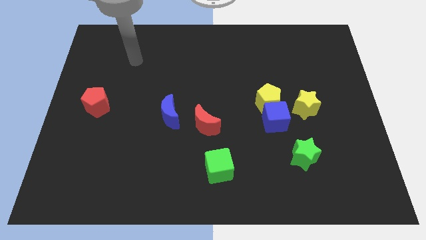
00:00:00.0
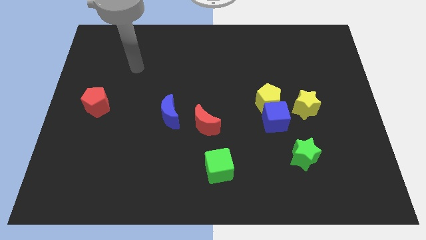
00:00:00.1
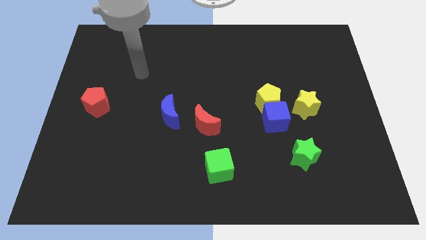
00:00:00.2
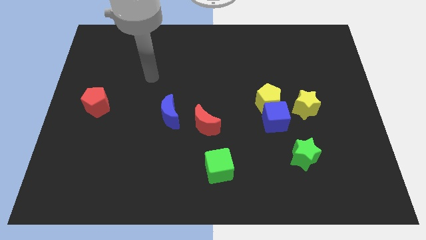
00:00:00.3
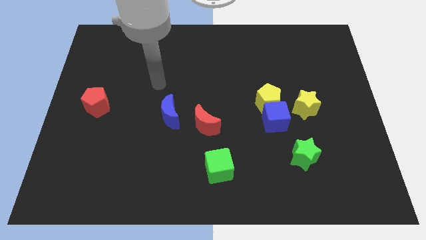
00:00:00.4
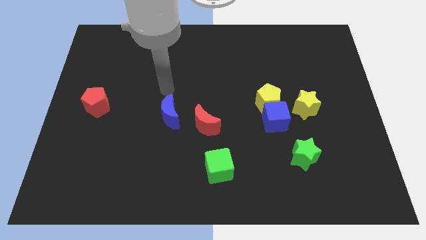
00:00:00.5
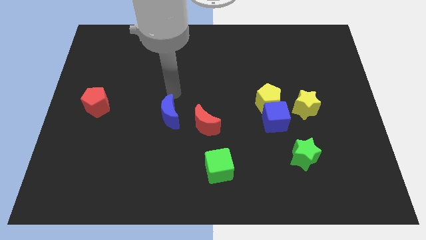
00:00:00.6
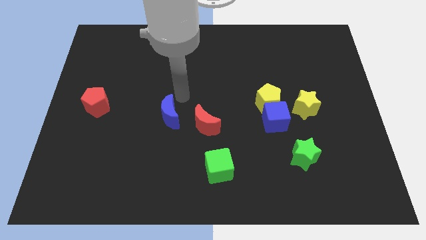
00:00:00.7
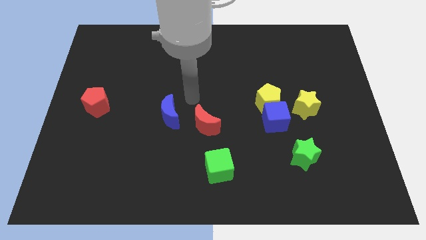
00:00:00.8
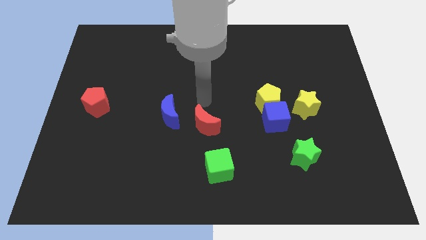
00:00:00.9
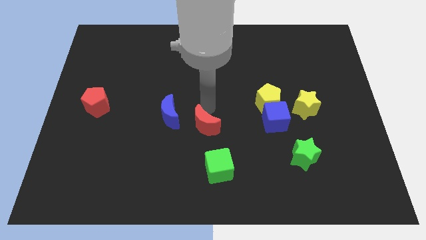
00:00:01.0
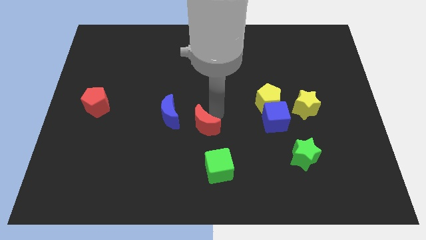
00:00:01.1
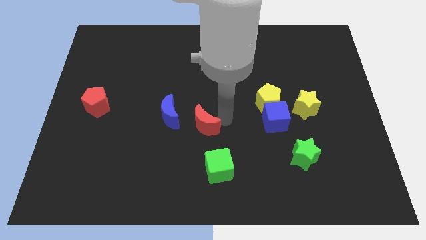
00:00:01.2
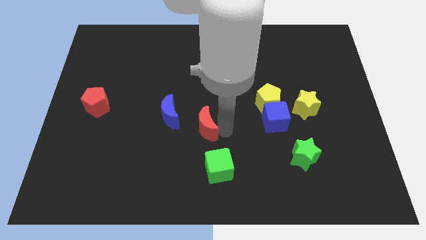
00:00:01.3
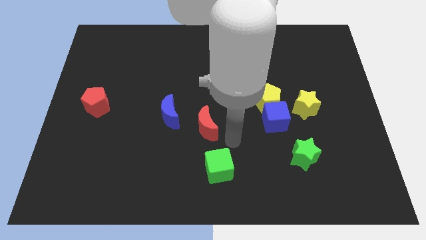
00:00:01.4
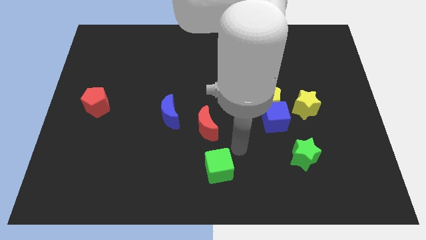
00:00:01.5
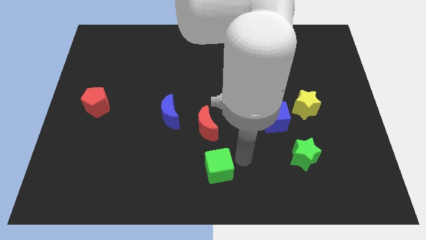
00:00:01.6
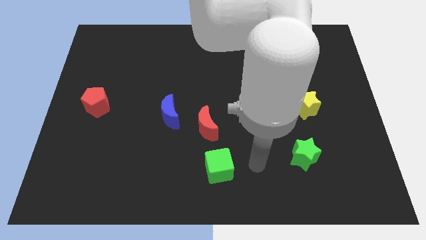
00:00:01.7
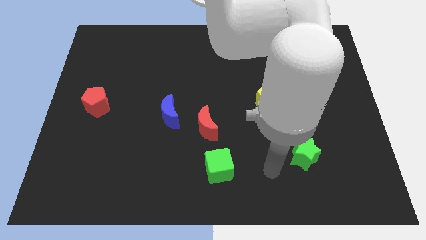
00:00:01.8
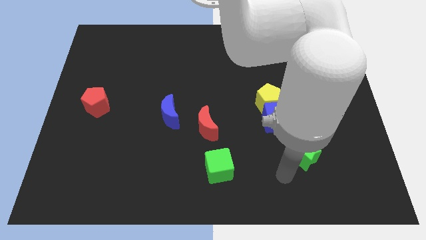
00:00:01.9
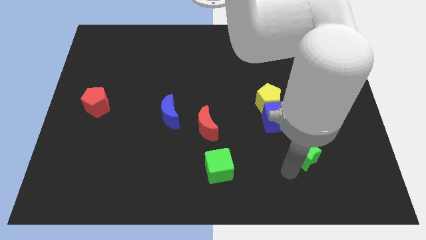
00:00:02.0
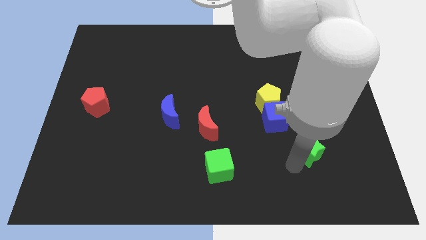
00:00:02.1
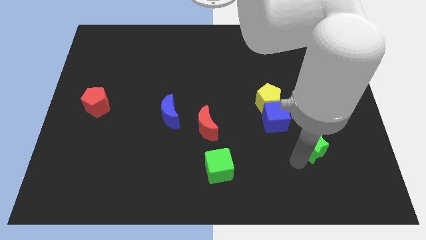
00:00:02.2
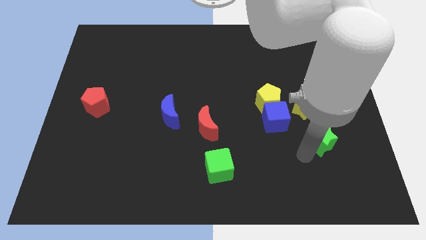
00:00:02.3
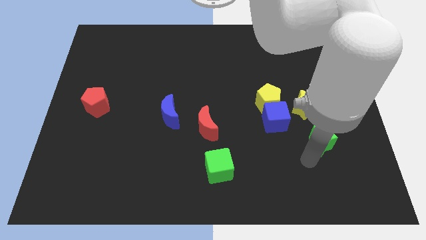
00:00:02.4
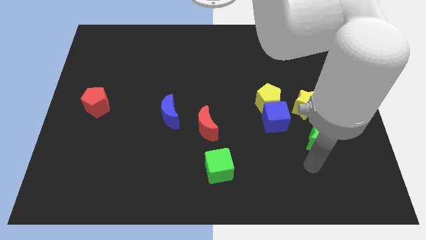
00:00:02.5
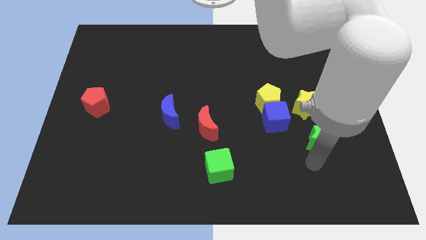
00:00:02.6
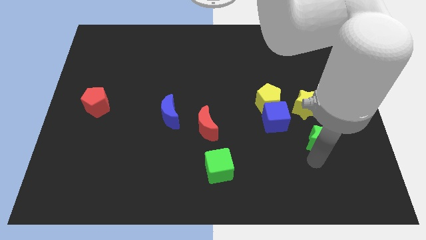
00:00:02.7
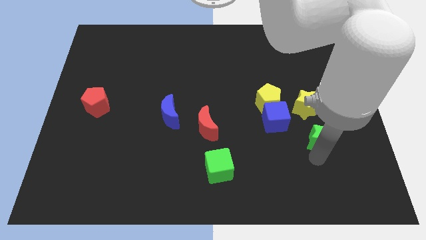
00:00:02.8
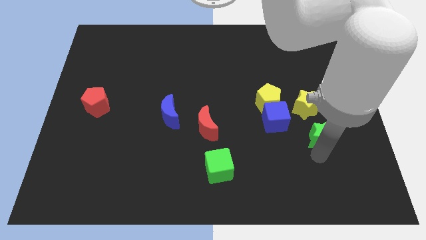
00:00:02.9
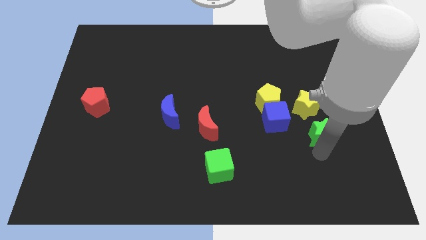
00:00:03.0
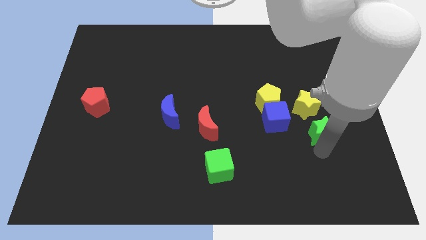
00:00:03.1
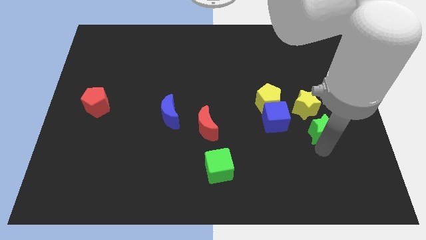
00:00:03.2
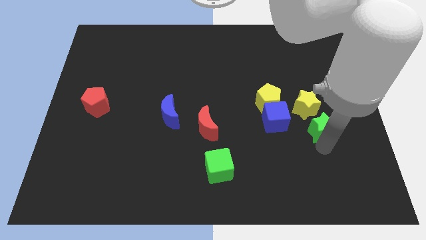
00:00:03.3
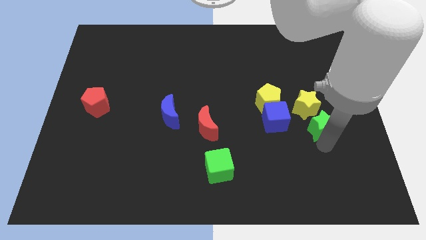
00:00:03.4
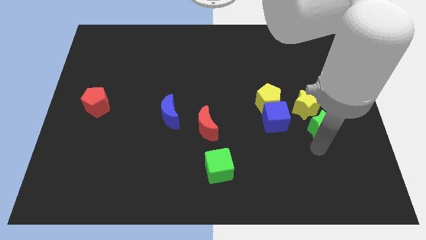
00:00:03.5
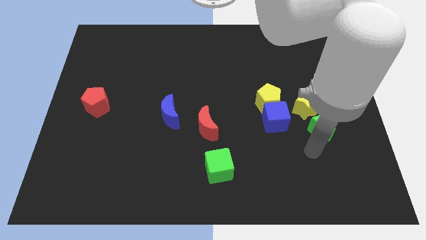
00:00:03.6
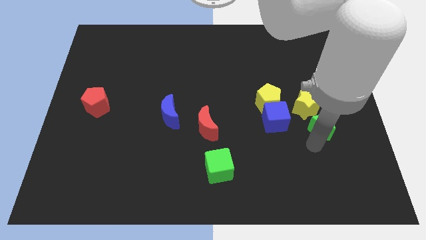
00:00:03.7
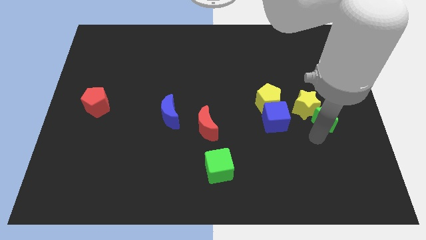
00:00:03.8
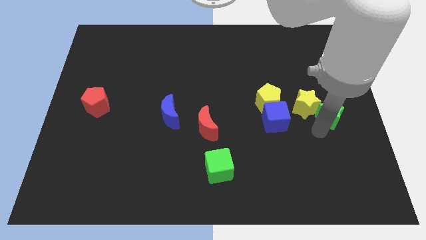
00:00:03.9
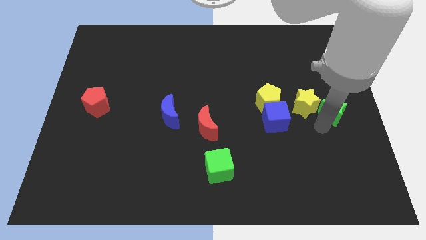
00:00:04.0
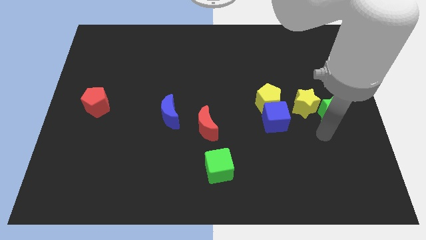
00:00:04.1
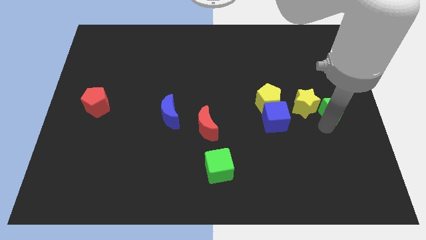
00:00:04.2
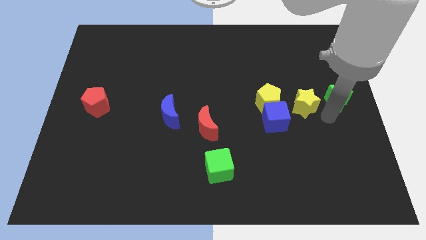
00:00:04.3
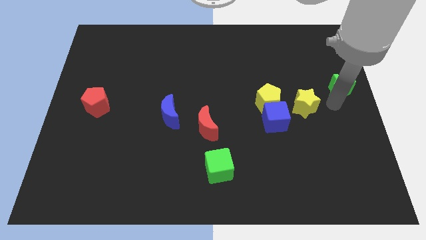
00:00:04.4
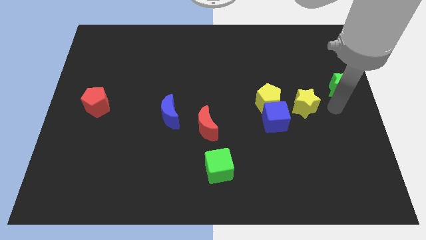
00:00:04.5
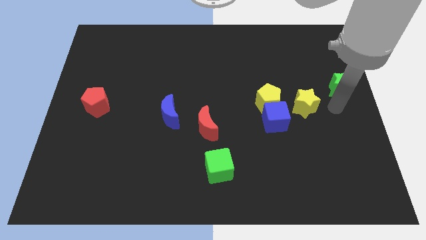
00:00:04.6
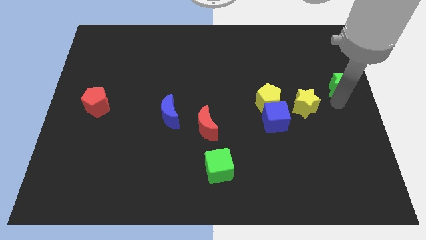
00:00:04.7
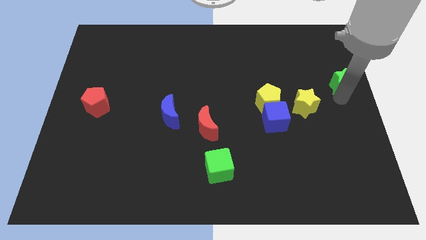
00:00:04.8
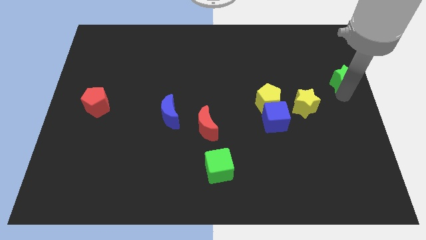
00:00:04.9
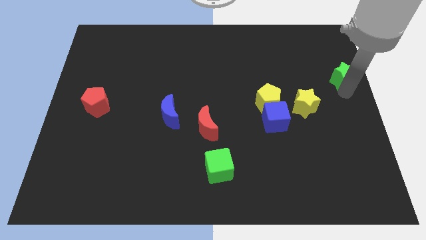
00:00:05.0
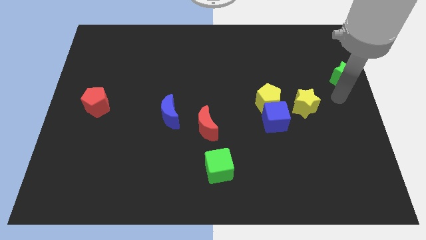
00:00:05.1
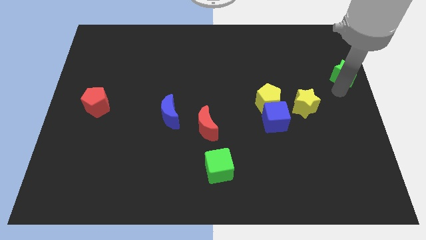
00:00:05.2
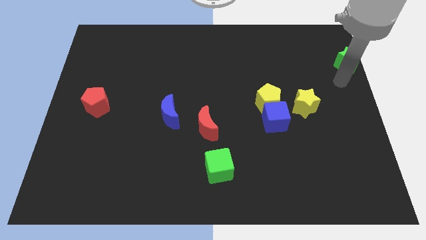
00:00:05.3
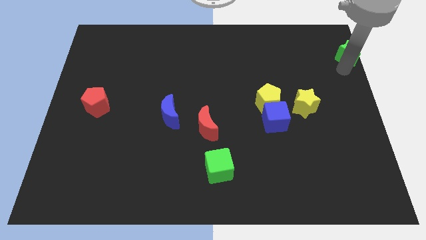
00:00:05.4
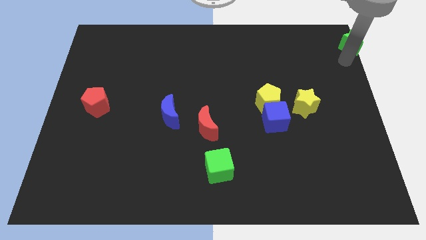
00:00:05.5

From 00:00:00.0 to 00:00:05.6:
put the green star to the top right of the board
